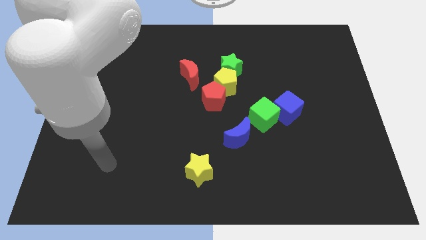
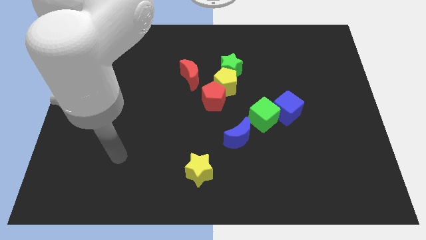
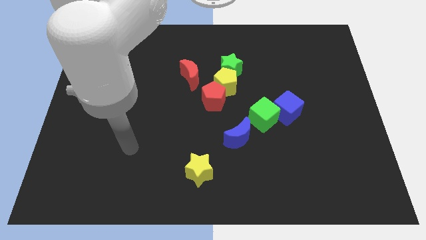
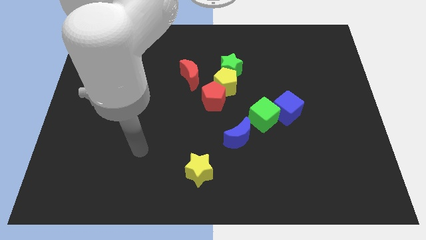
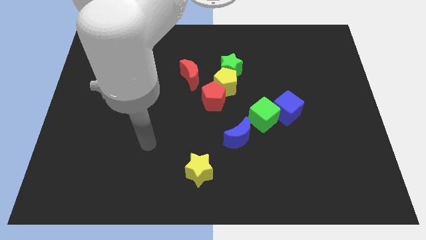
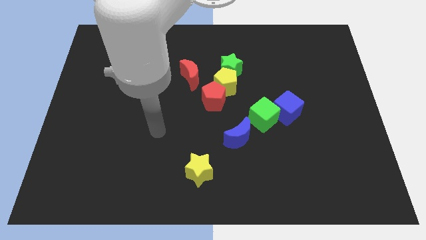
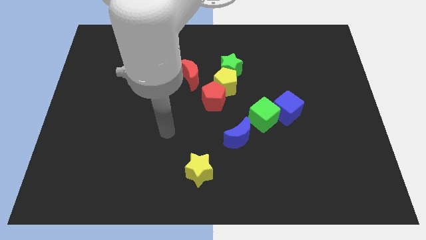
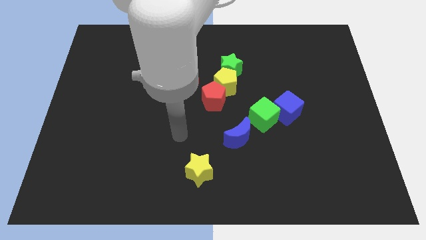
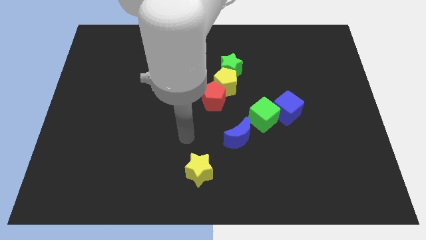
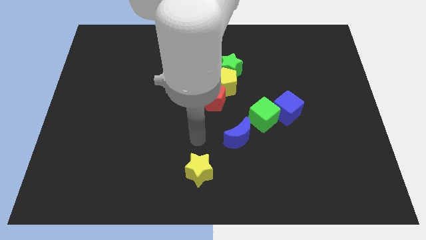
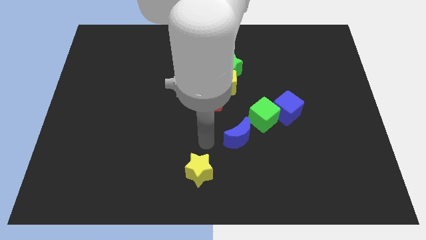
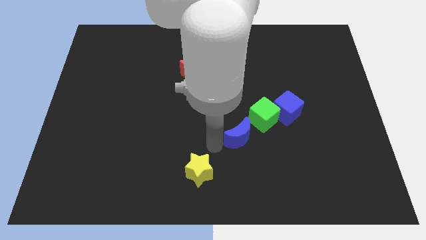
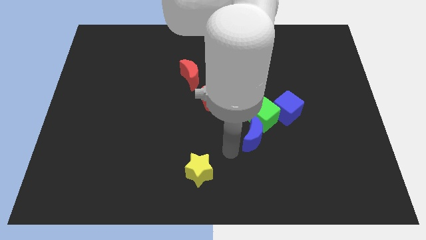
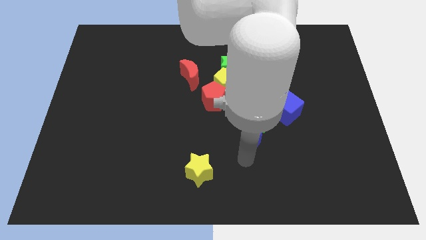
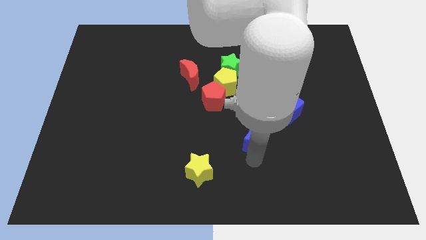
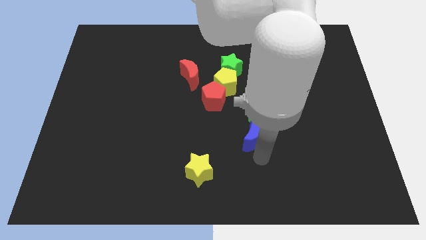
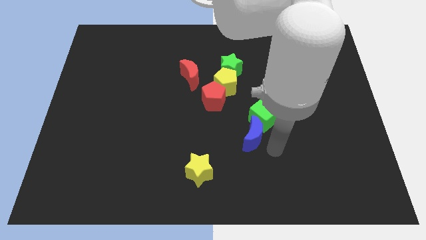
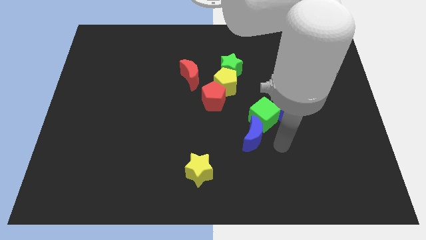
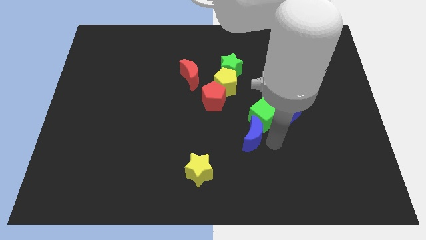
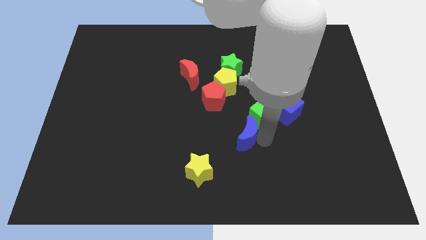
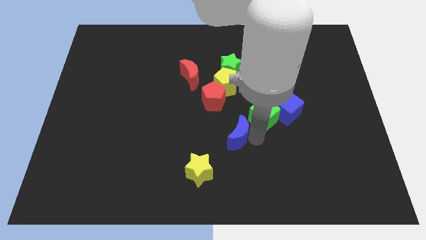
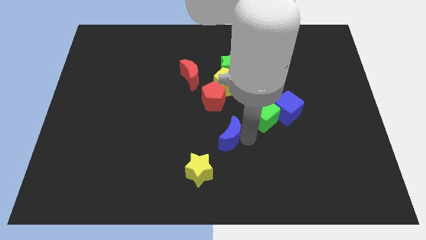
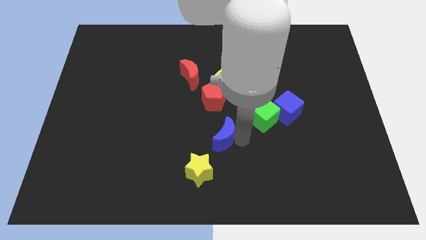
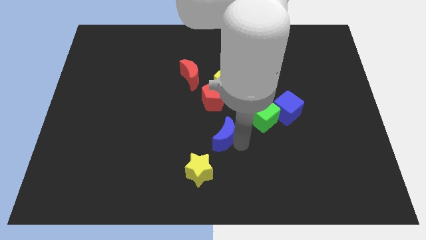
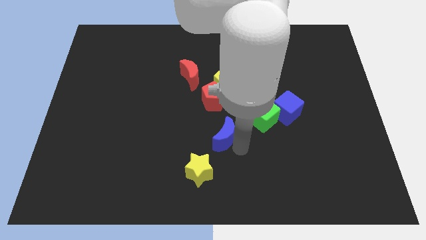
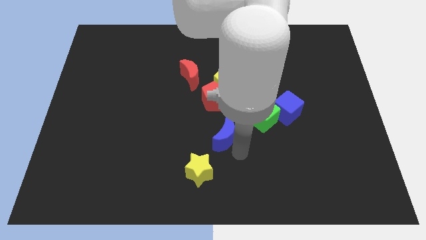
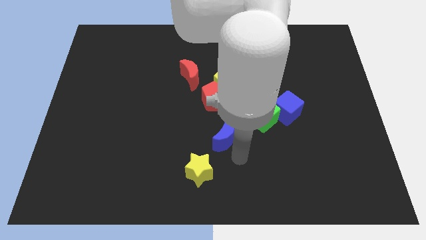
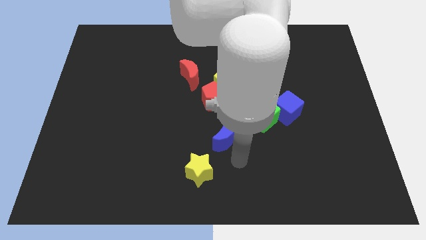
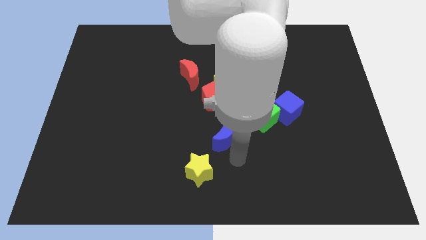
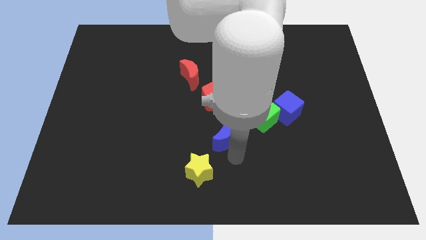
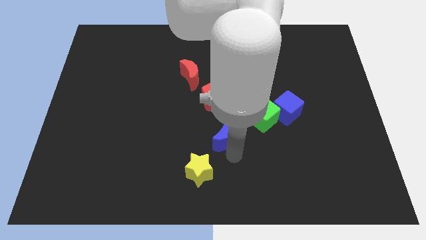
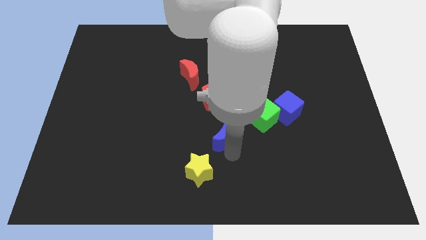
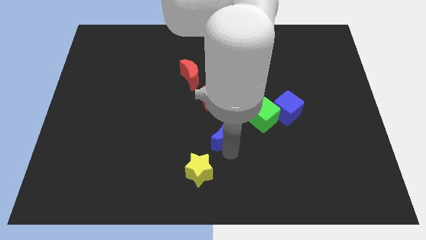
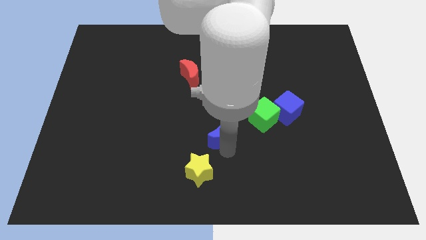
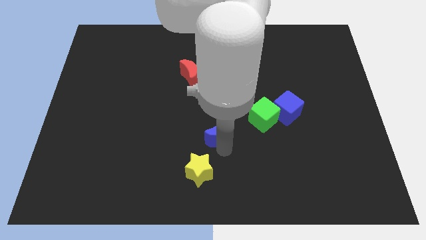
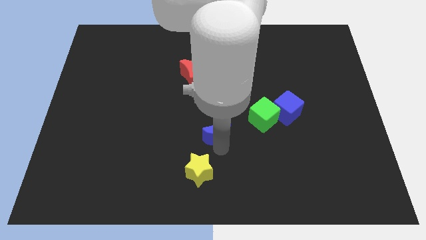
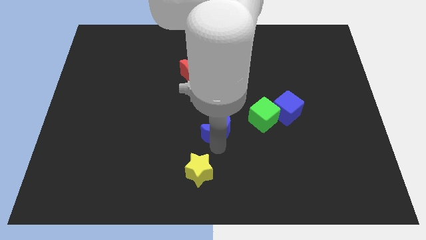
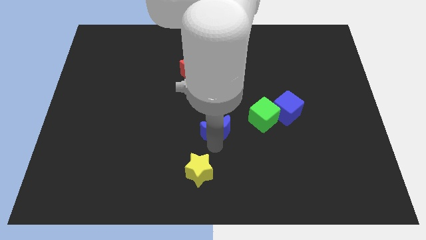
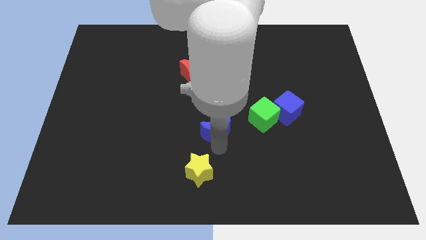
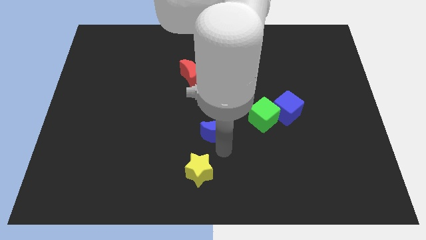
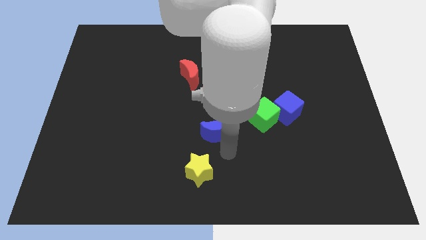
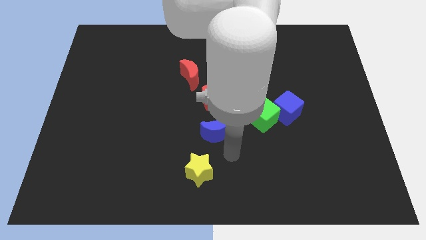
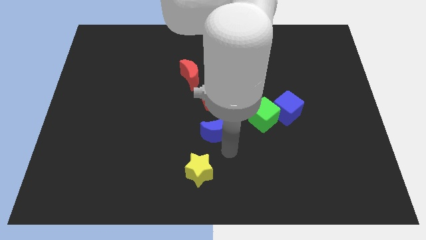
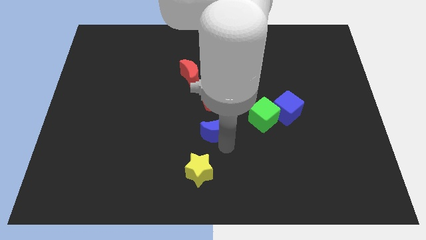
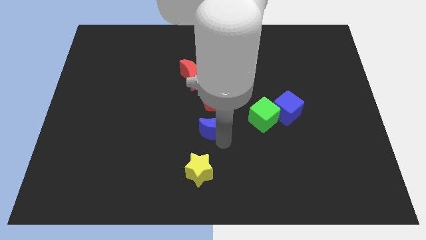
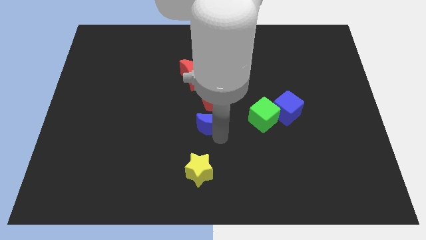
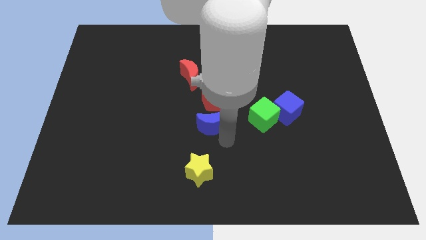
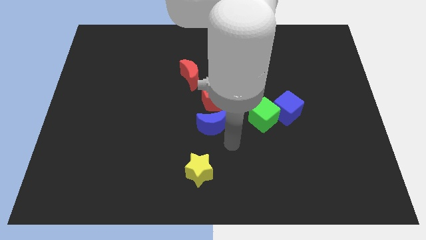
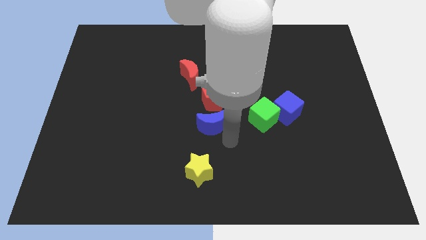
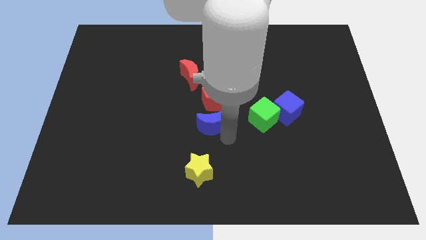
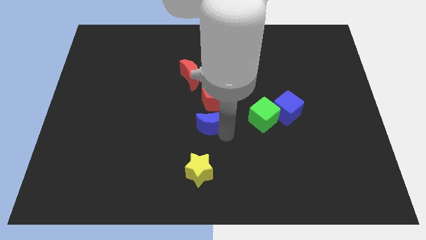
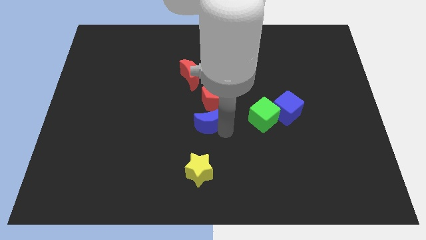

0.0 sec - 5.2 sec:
slightly push the blue moon upwards and left

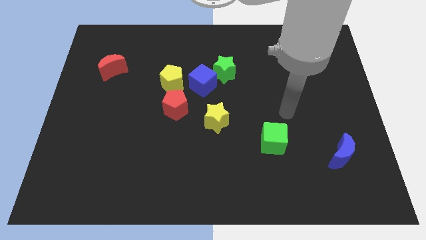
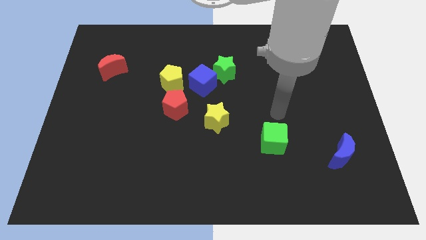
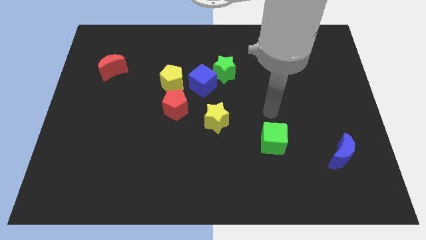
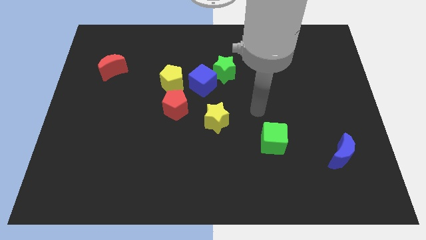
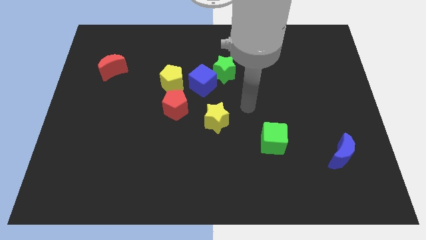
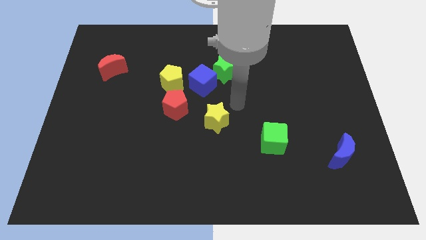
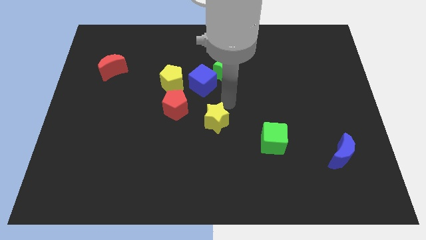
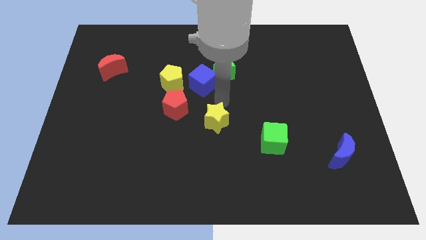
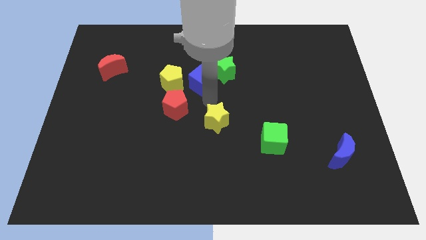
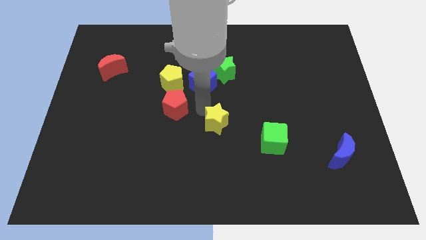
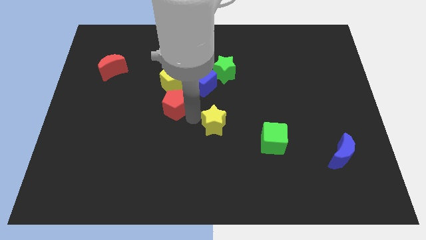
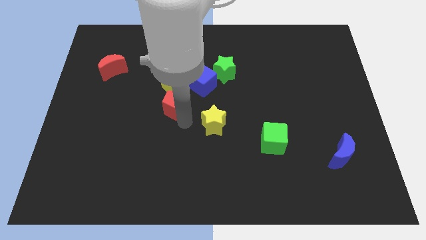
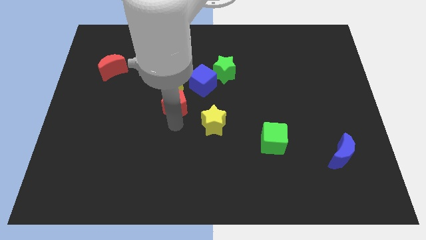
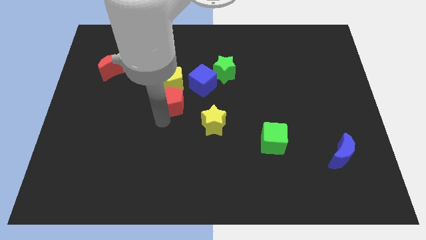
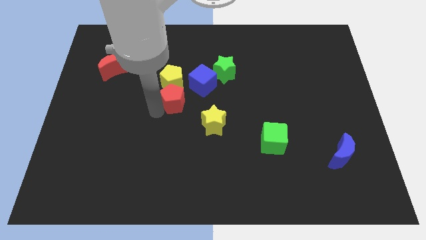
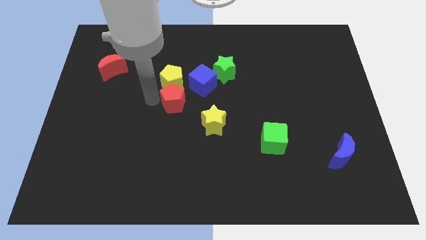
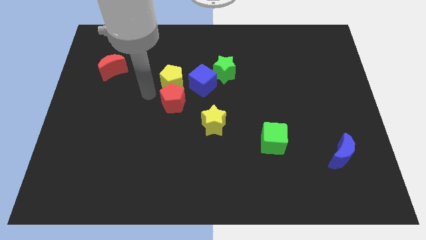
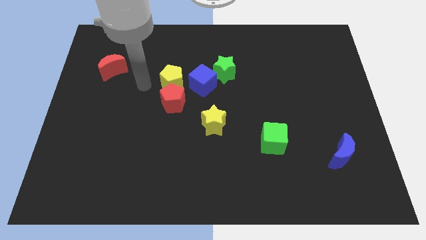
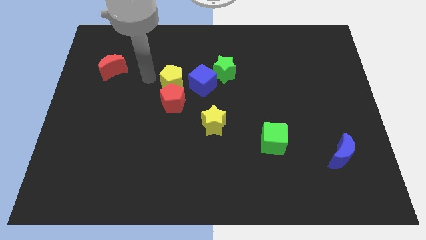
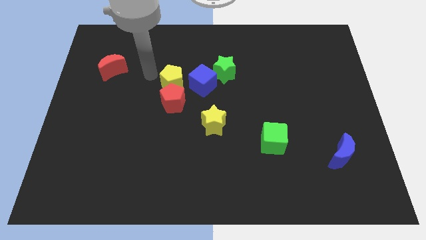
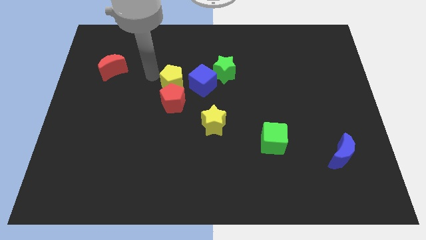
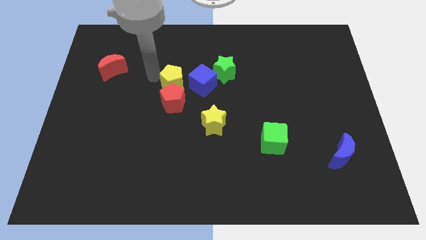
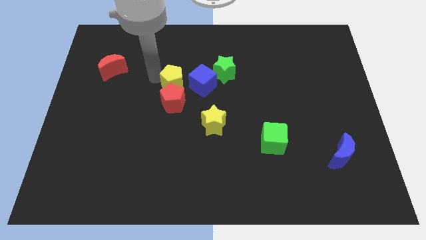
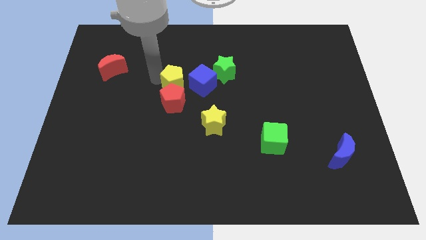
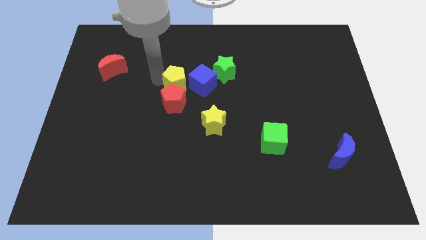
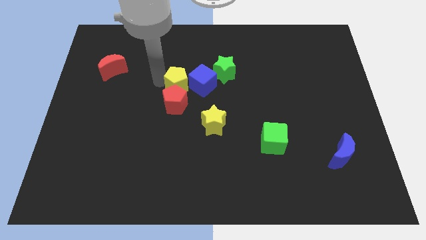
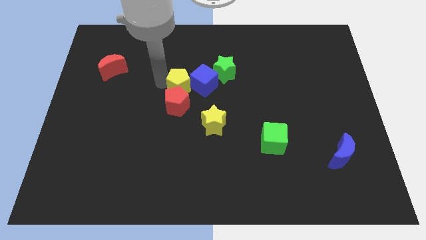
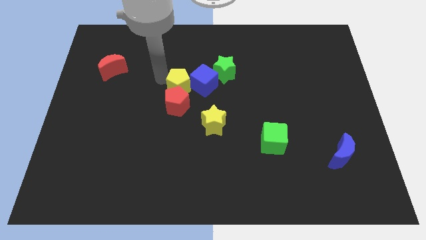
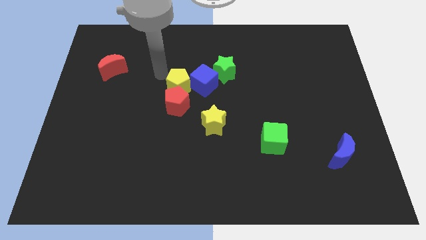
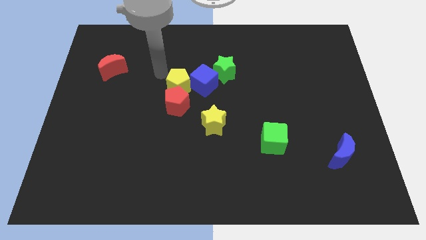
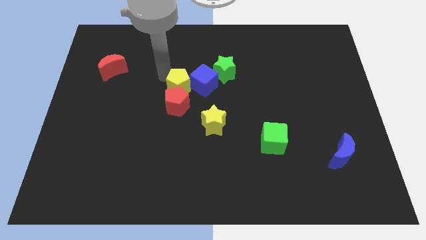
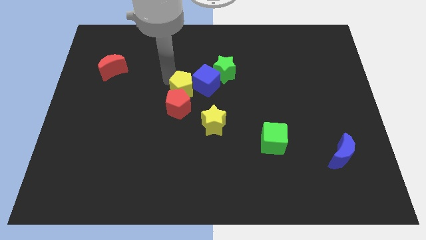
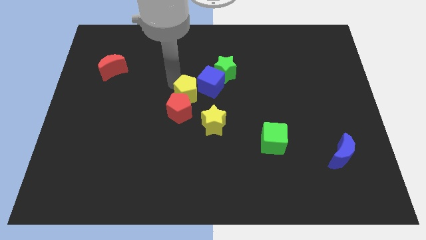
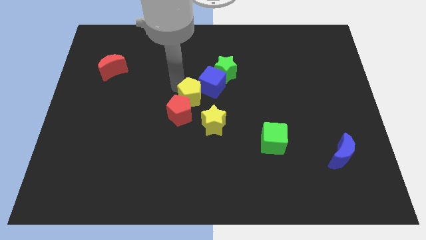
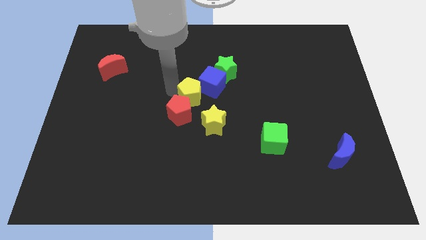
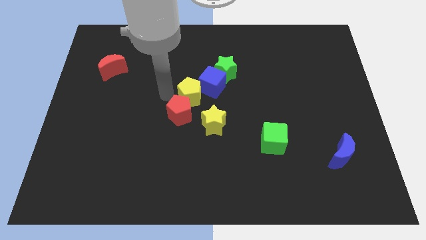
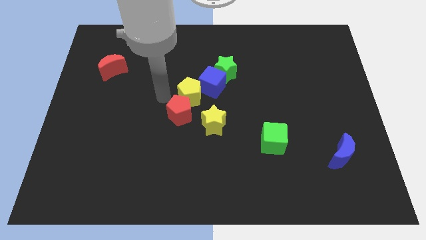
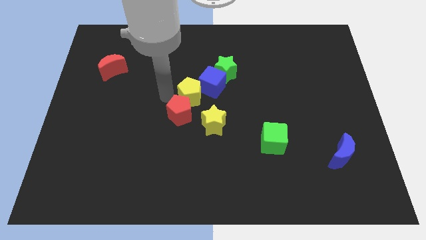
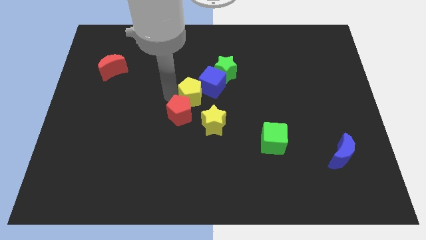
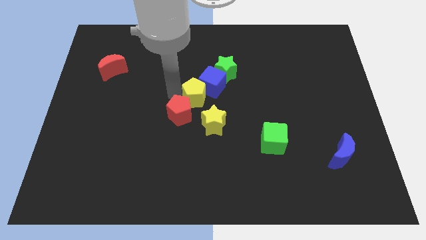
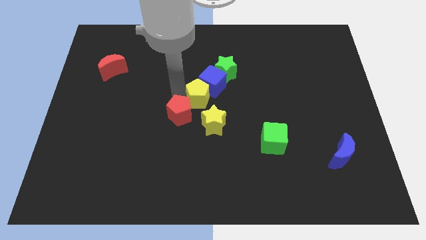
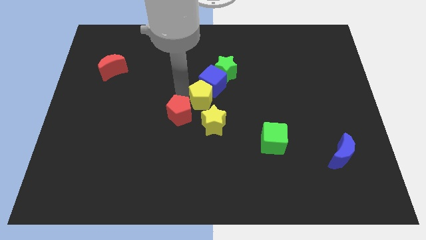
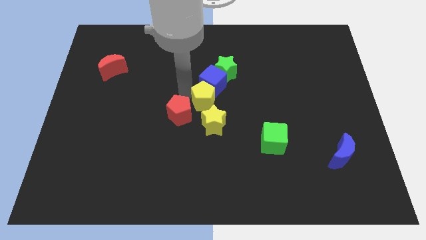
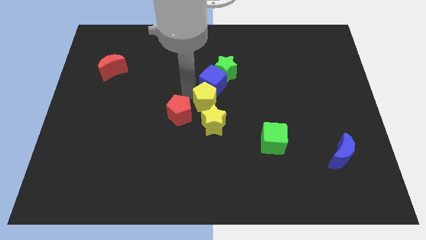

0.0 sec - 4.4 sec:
push the yellow pentagon a little bit right
